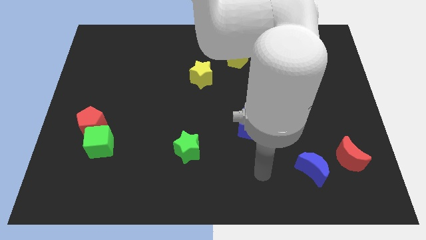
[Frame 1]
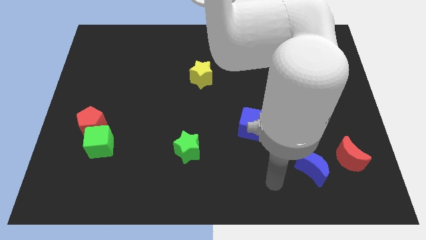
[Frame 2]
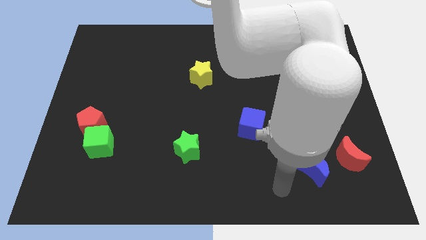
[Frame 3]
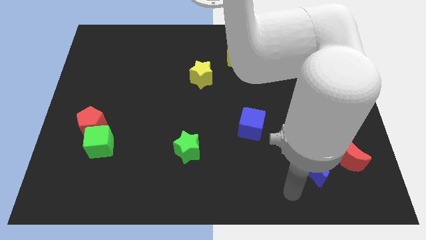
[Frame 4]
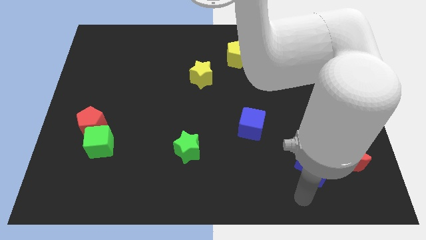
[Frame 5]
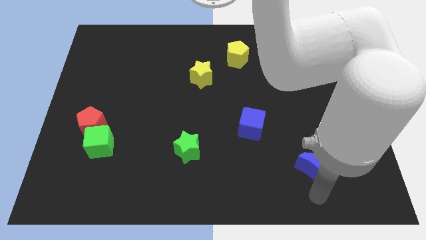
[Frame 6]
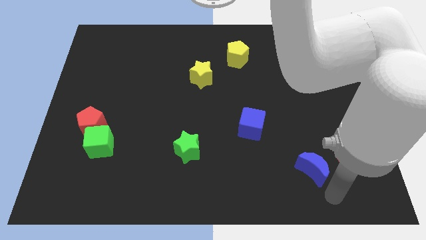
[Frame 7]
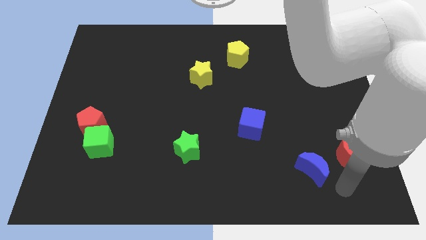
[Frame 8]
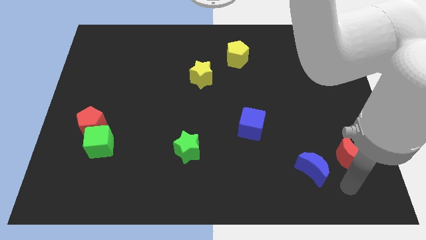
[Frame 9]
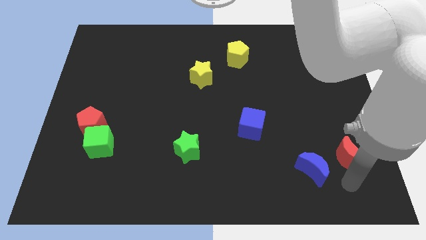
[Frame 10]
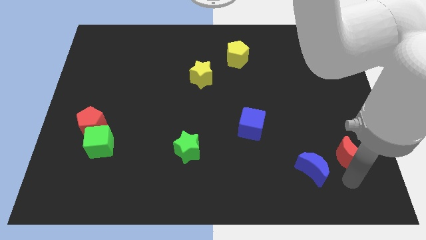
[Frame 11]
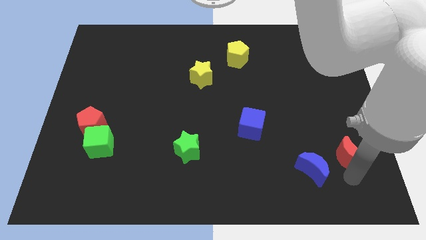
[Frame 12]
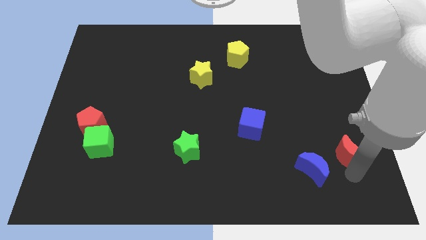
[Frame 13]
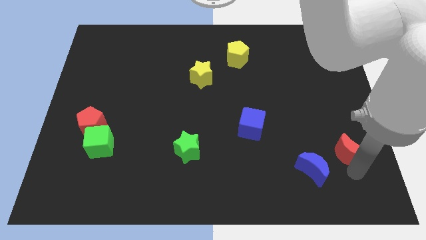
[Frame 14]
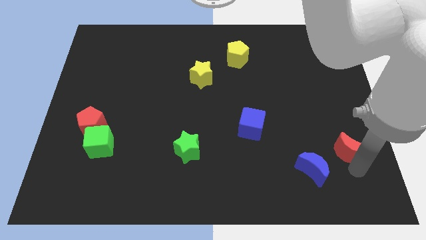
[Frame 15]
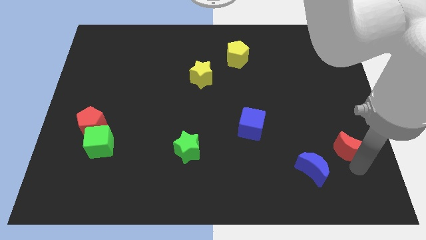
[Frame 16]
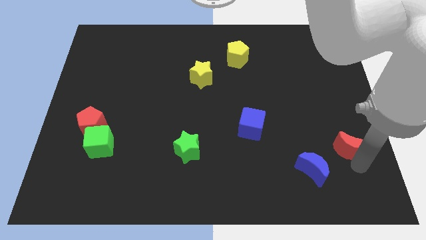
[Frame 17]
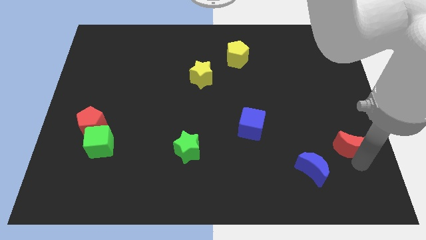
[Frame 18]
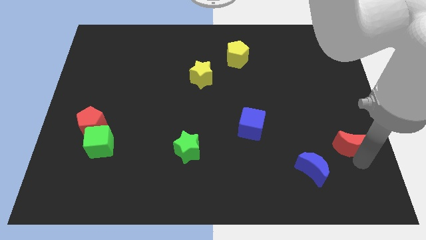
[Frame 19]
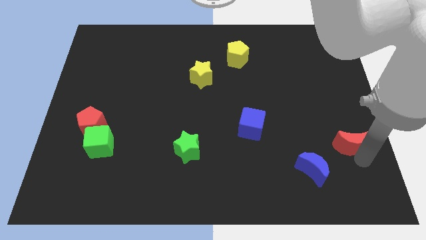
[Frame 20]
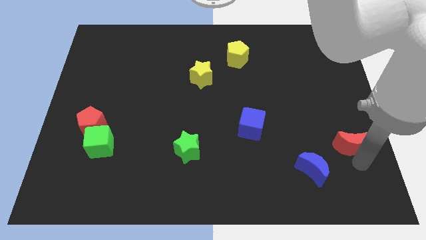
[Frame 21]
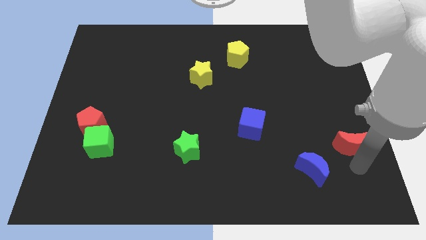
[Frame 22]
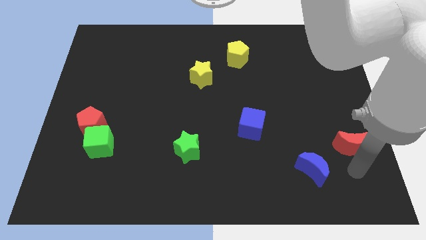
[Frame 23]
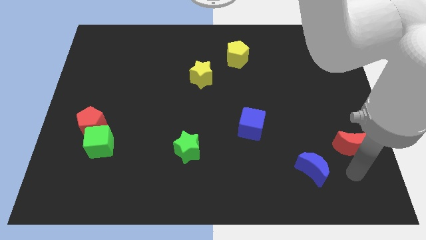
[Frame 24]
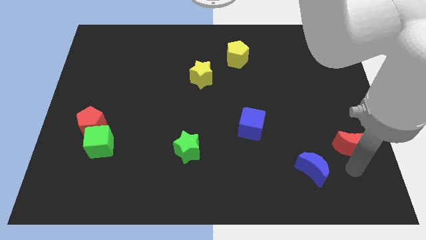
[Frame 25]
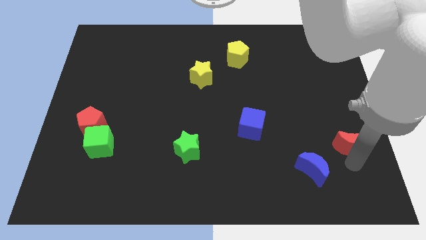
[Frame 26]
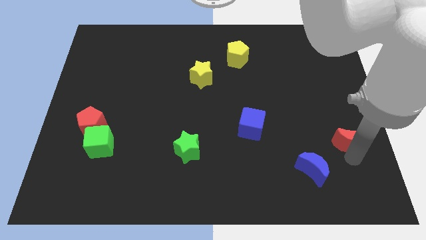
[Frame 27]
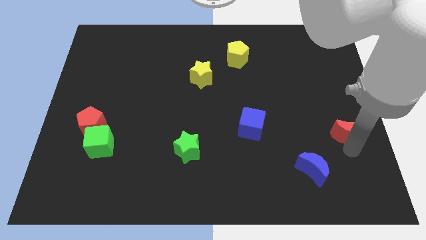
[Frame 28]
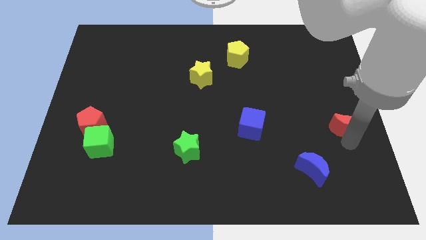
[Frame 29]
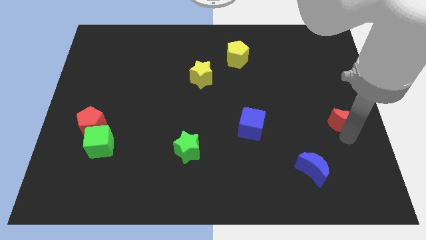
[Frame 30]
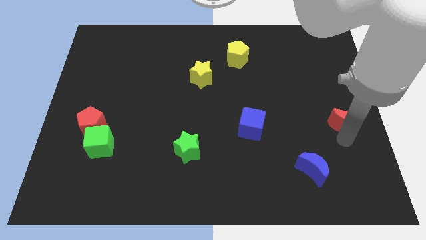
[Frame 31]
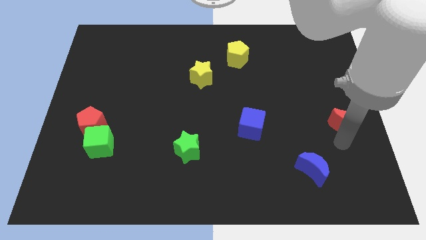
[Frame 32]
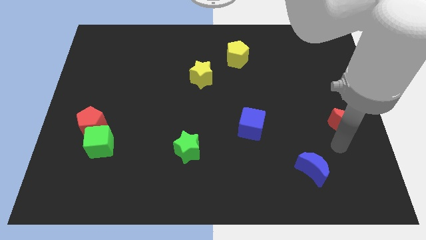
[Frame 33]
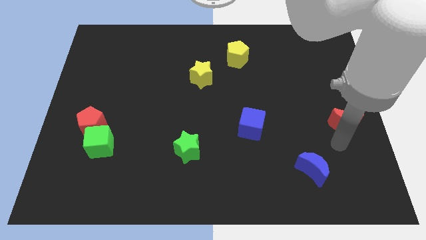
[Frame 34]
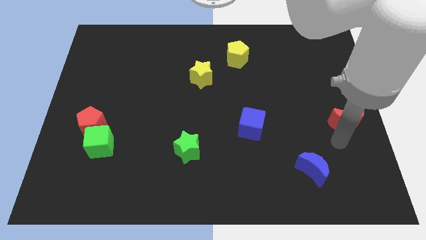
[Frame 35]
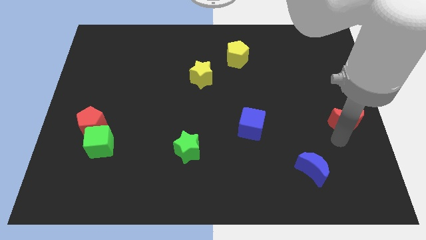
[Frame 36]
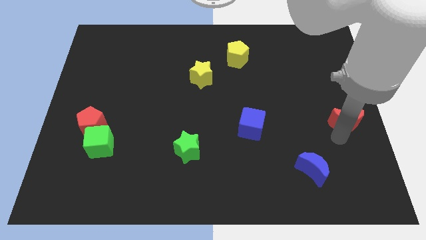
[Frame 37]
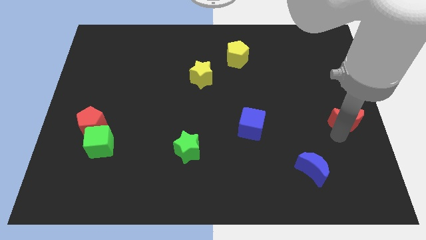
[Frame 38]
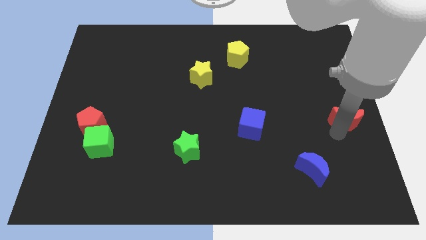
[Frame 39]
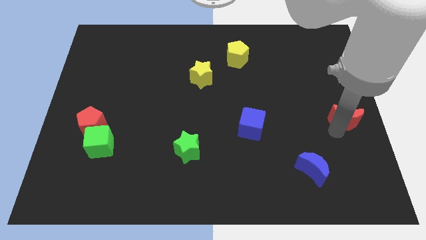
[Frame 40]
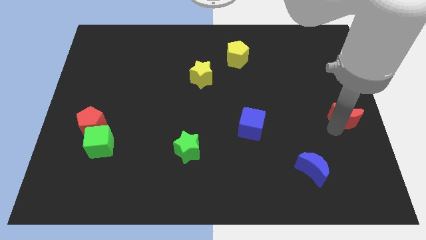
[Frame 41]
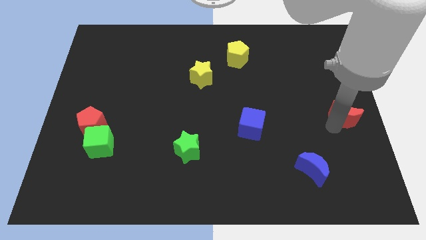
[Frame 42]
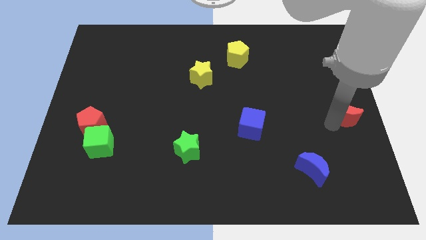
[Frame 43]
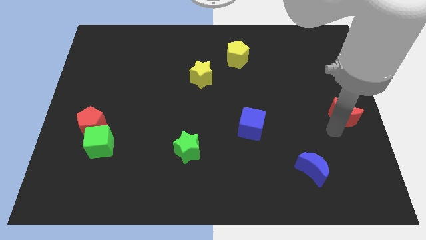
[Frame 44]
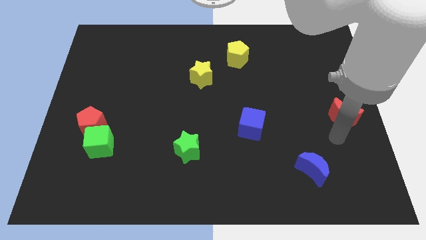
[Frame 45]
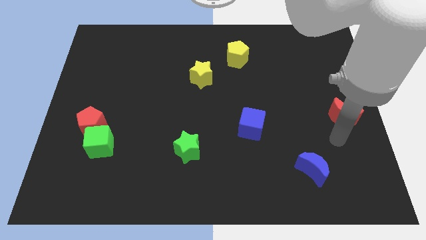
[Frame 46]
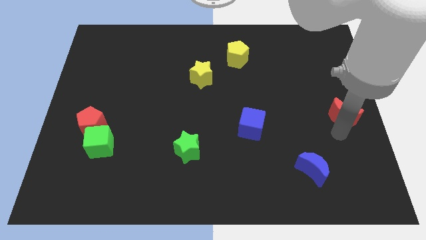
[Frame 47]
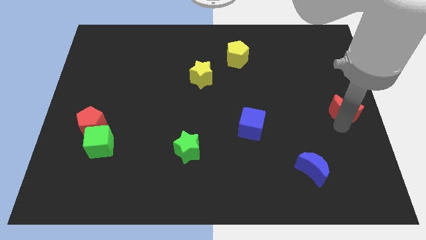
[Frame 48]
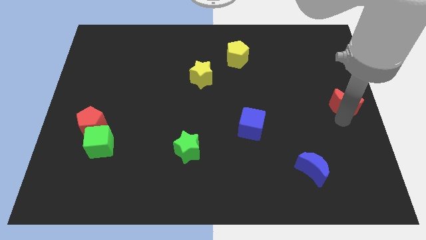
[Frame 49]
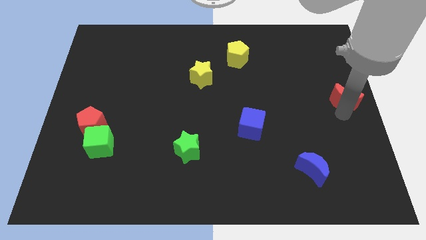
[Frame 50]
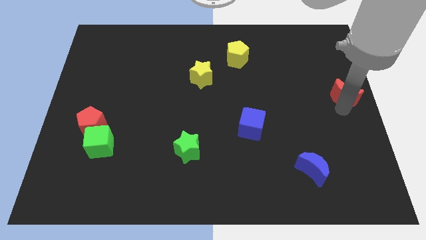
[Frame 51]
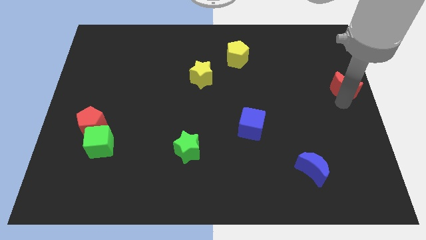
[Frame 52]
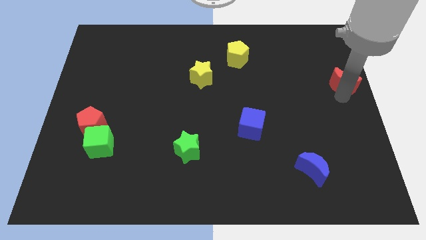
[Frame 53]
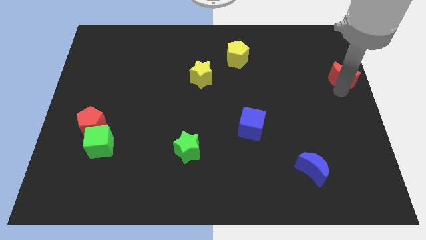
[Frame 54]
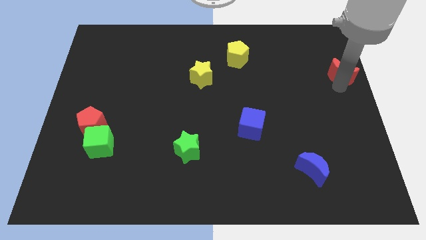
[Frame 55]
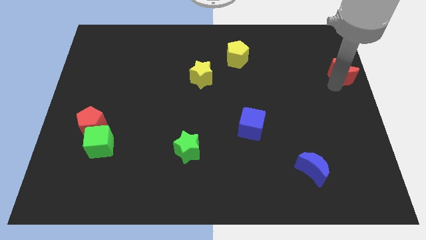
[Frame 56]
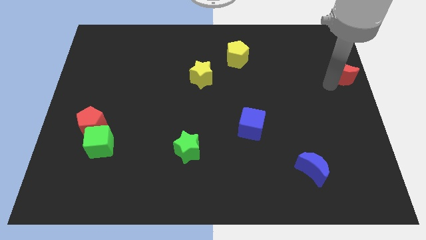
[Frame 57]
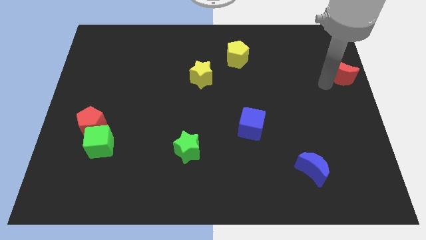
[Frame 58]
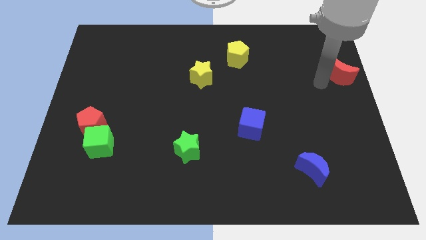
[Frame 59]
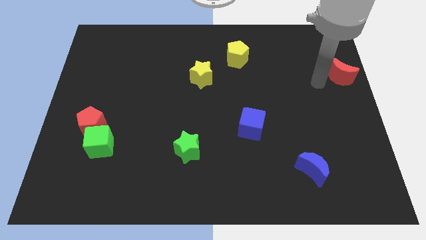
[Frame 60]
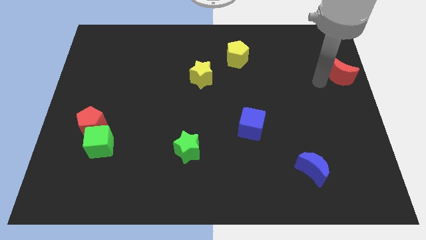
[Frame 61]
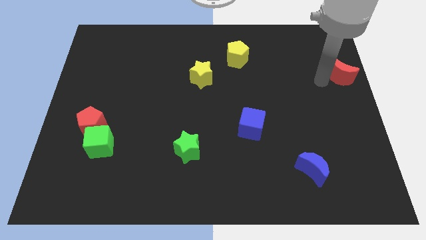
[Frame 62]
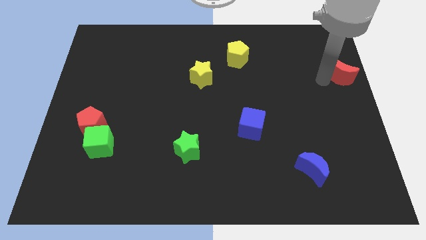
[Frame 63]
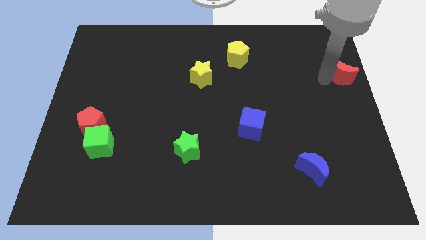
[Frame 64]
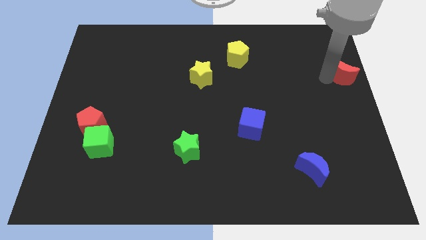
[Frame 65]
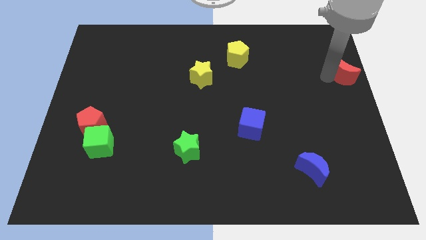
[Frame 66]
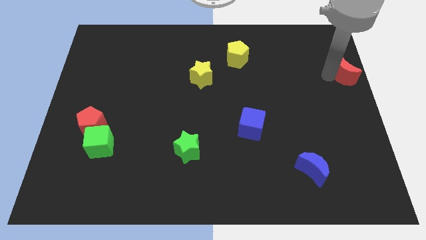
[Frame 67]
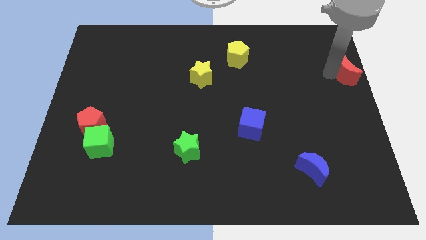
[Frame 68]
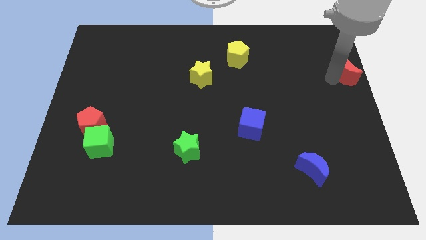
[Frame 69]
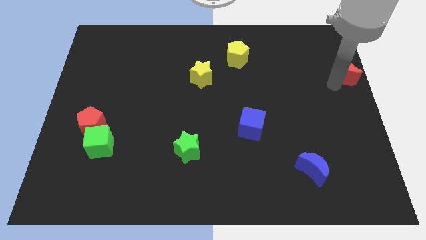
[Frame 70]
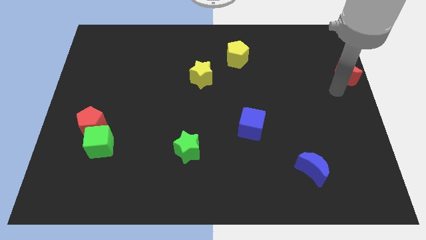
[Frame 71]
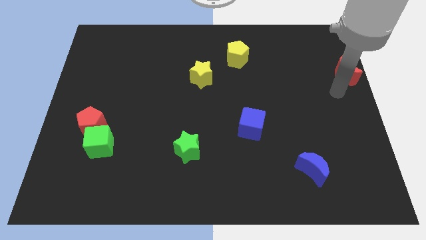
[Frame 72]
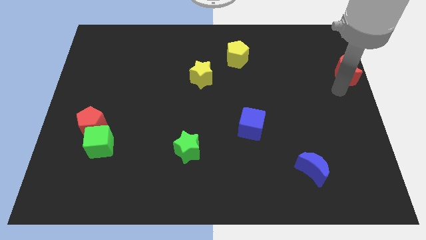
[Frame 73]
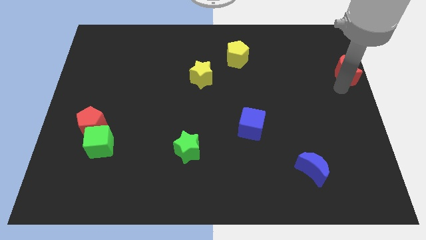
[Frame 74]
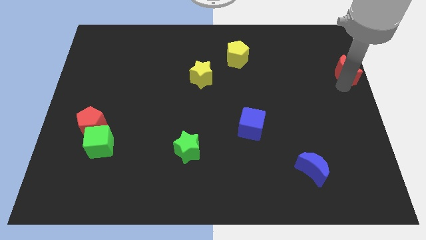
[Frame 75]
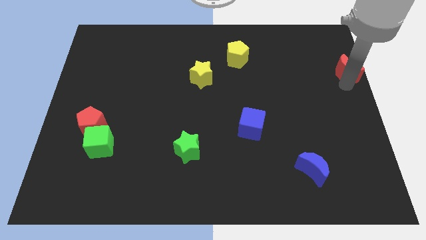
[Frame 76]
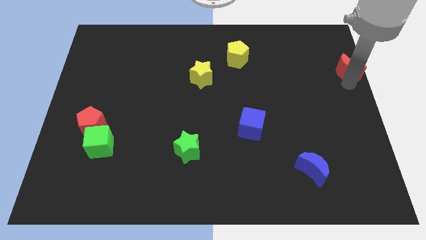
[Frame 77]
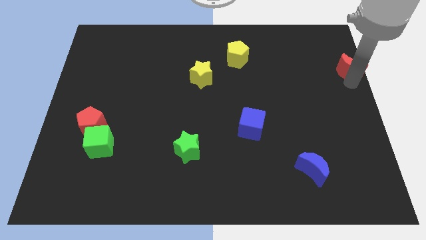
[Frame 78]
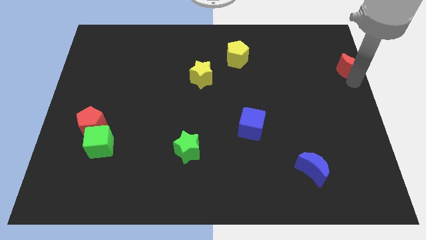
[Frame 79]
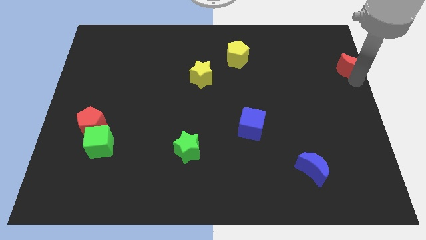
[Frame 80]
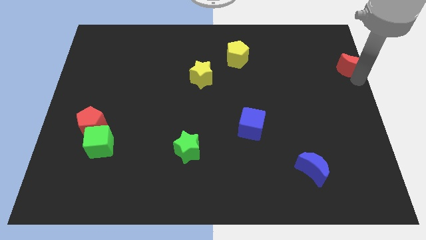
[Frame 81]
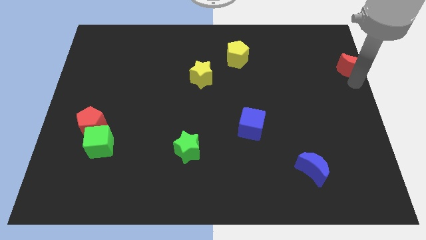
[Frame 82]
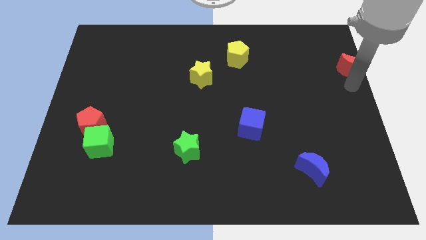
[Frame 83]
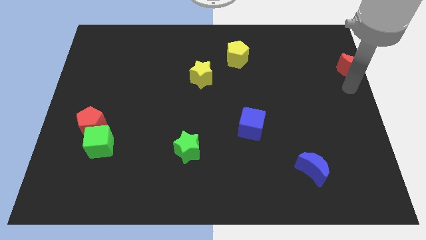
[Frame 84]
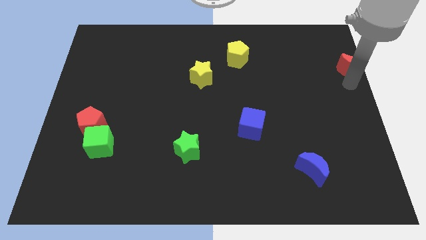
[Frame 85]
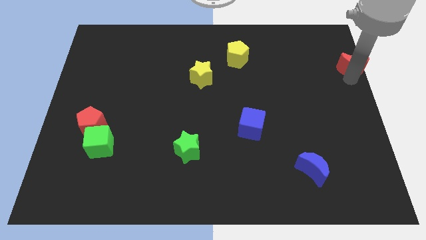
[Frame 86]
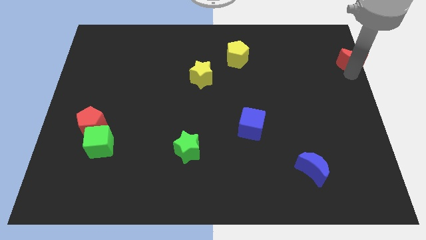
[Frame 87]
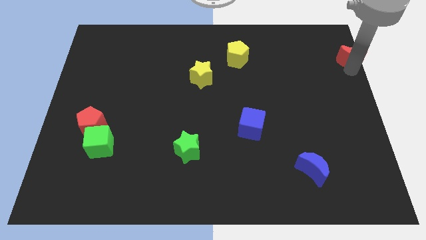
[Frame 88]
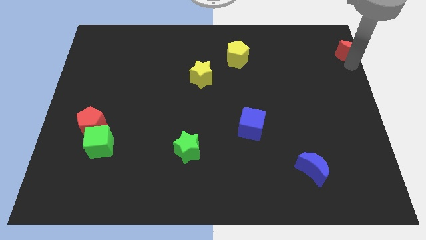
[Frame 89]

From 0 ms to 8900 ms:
put the red moon to the top right
